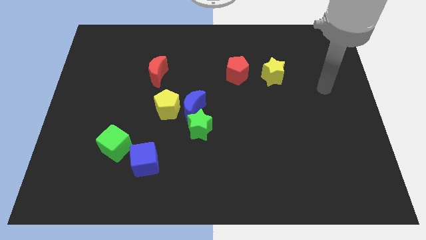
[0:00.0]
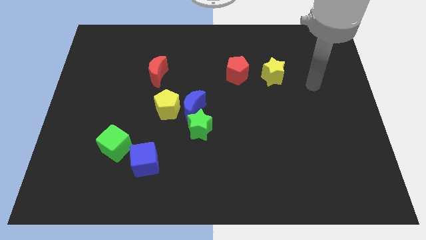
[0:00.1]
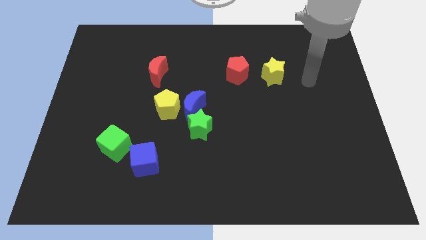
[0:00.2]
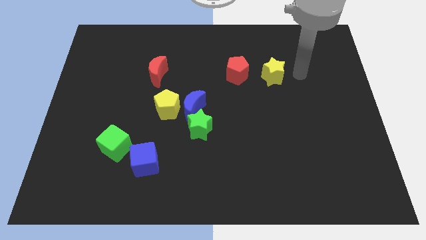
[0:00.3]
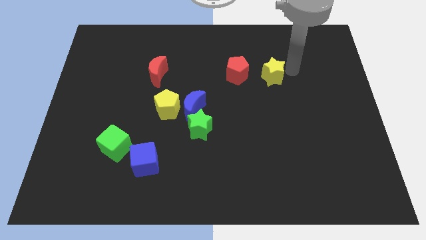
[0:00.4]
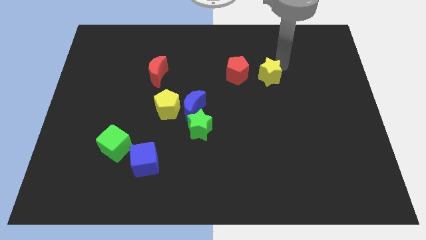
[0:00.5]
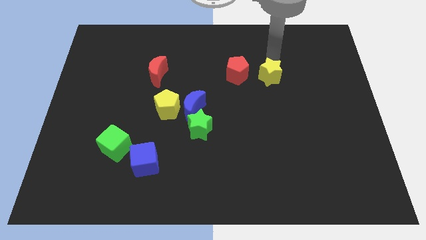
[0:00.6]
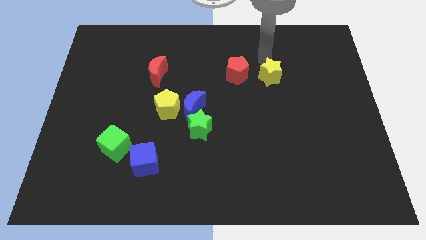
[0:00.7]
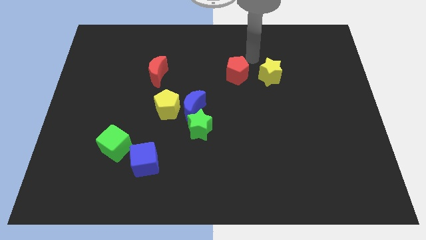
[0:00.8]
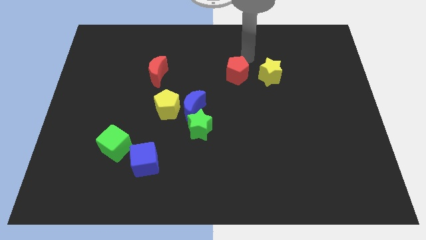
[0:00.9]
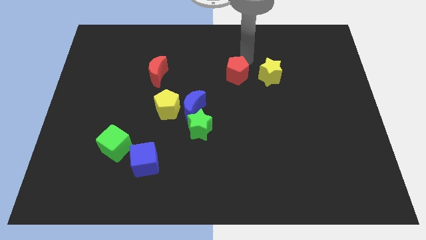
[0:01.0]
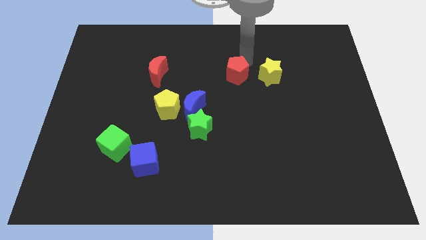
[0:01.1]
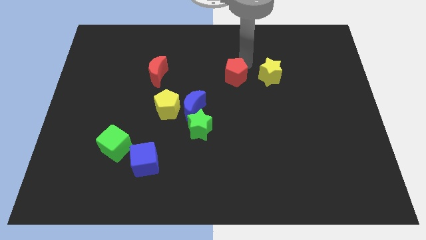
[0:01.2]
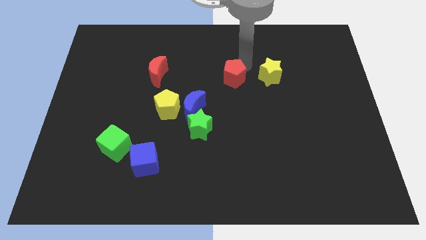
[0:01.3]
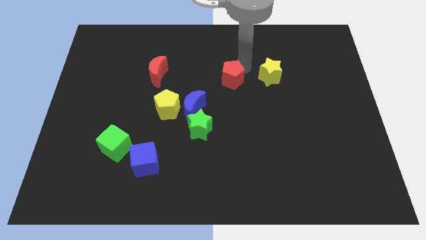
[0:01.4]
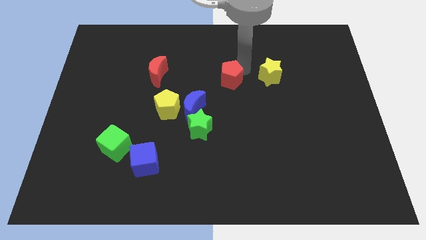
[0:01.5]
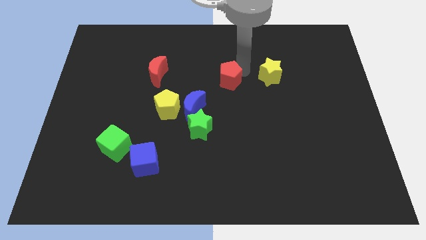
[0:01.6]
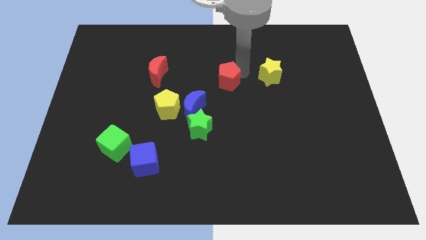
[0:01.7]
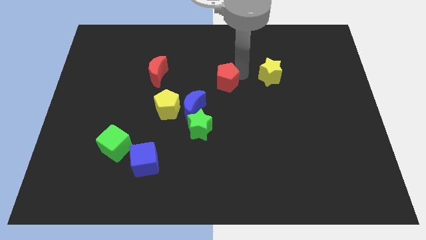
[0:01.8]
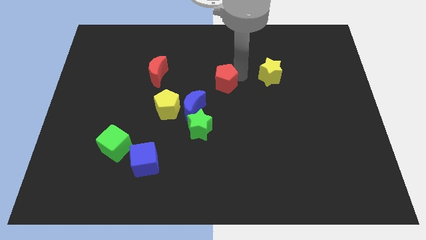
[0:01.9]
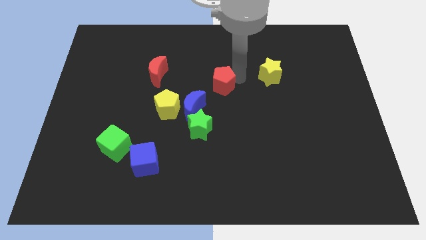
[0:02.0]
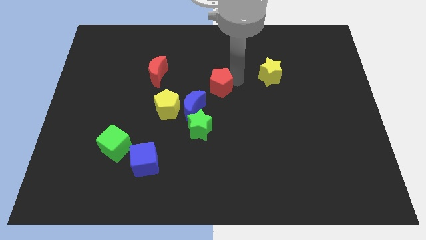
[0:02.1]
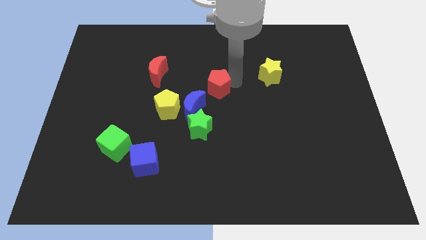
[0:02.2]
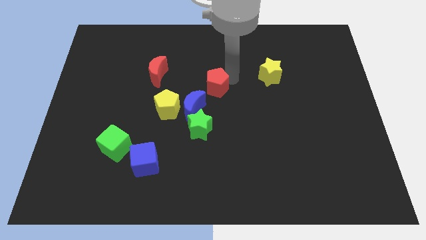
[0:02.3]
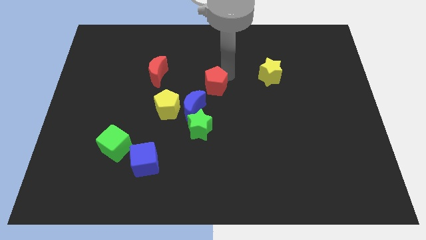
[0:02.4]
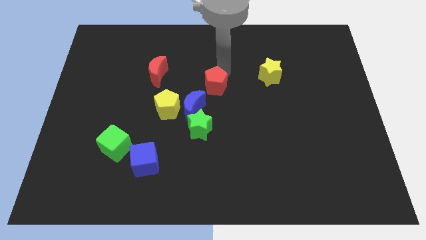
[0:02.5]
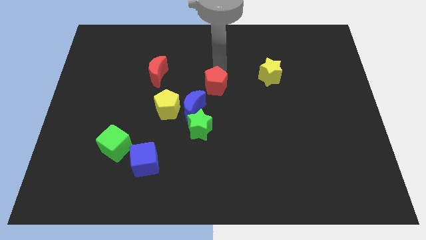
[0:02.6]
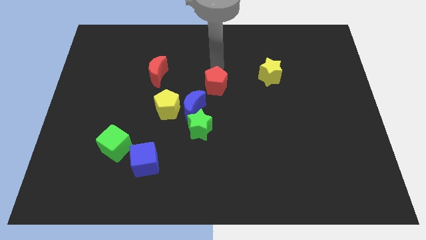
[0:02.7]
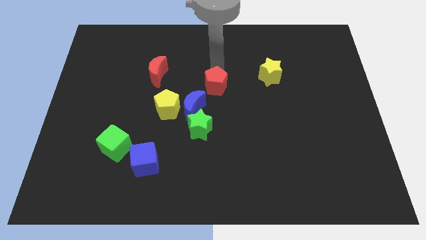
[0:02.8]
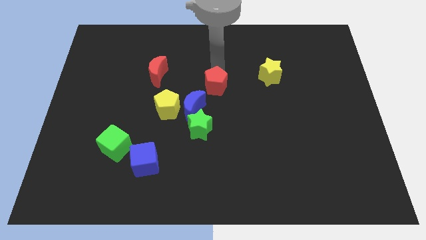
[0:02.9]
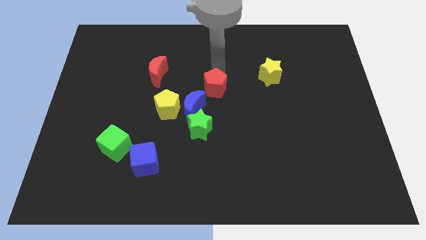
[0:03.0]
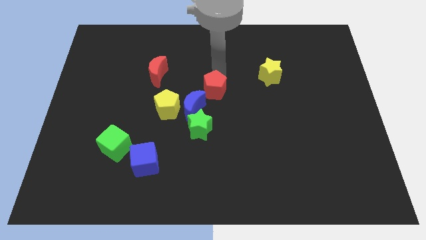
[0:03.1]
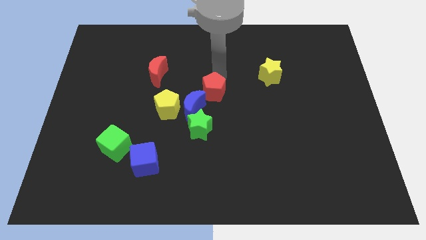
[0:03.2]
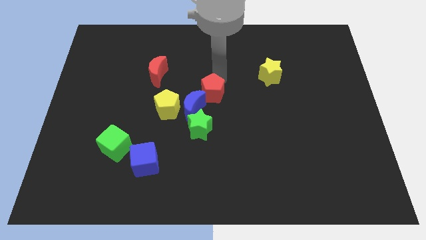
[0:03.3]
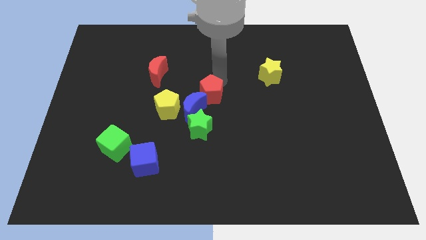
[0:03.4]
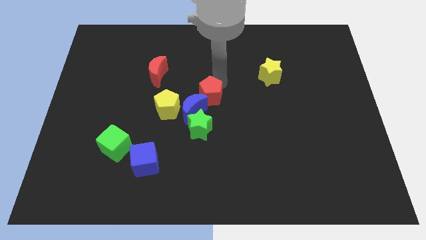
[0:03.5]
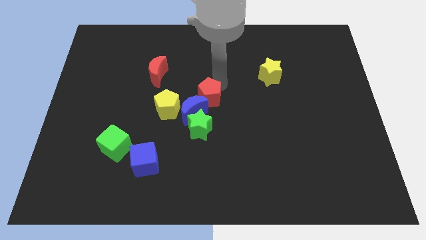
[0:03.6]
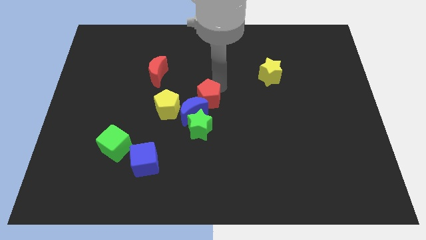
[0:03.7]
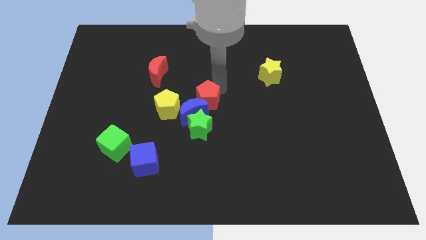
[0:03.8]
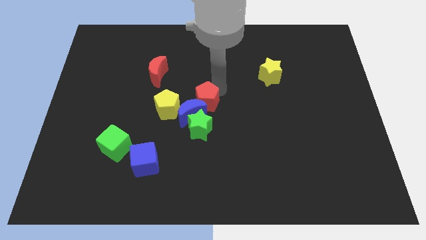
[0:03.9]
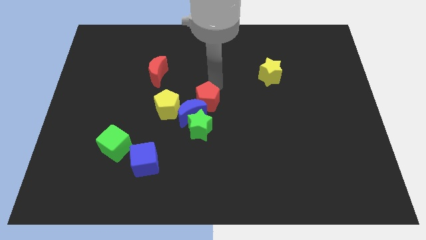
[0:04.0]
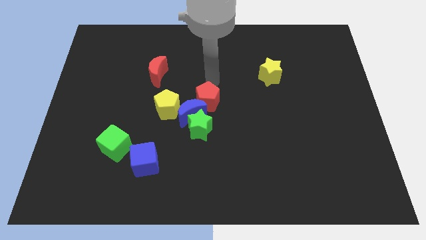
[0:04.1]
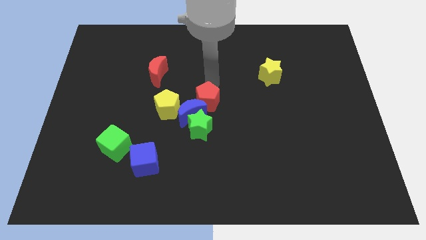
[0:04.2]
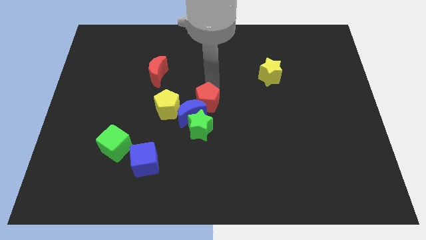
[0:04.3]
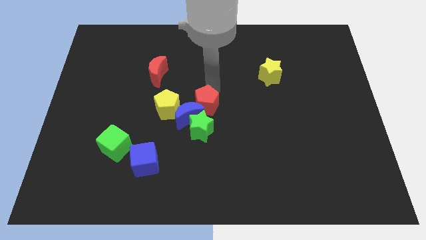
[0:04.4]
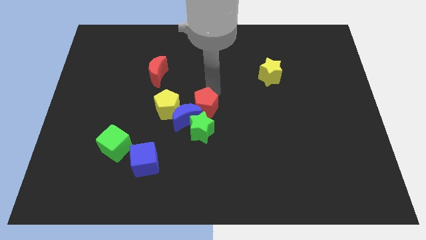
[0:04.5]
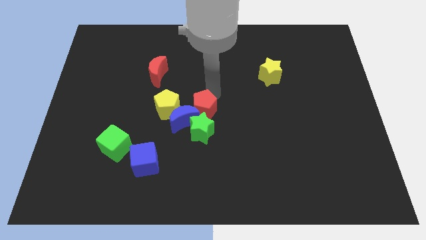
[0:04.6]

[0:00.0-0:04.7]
slide the red pentagon towards the green star

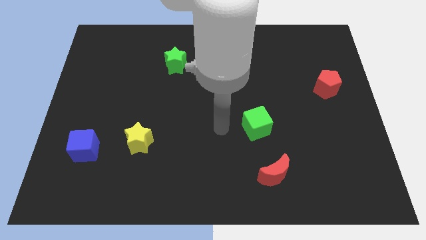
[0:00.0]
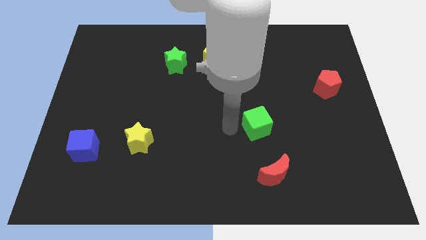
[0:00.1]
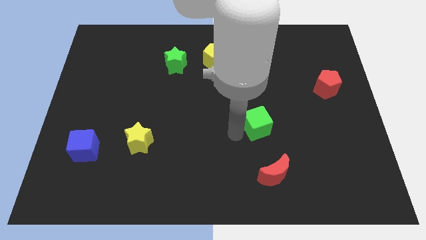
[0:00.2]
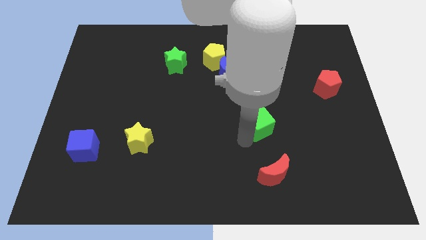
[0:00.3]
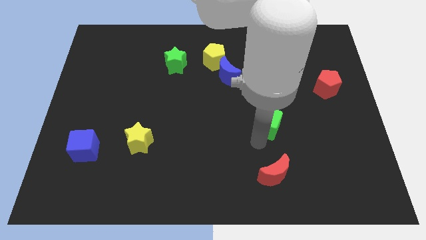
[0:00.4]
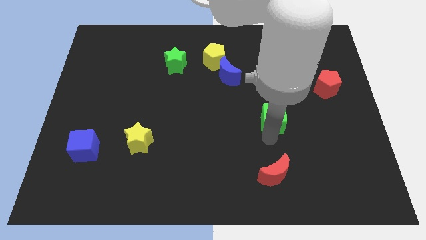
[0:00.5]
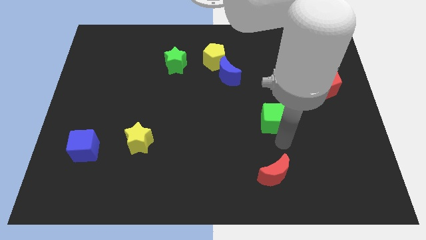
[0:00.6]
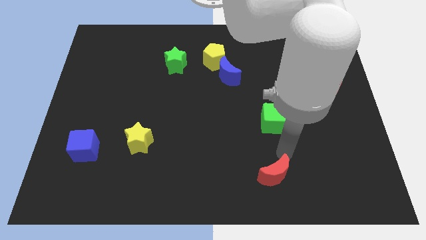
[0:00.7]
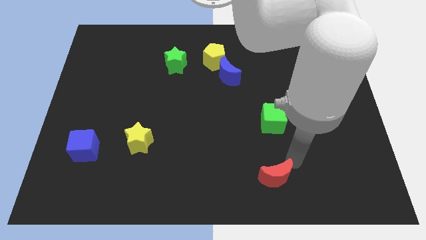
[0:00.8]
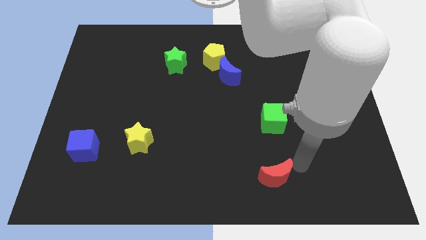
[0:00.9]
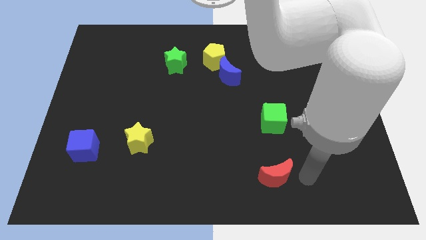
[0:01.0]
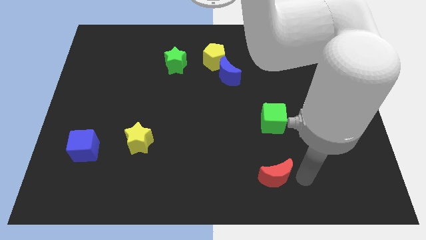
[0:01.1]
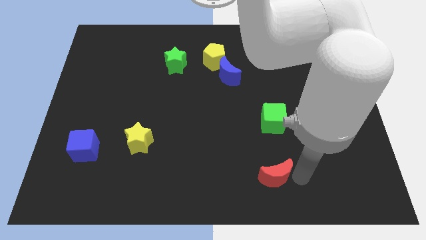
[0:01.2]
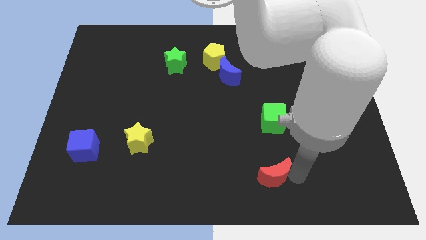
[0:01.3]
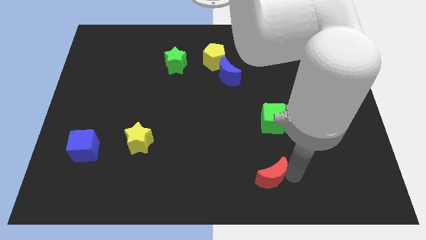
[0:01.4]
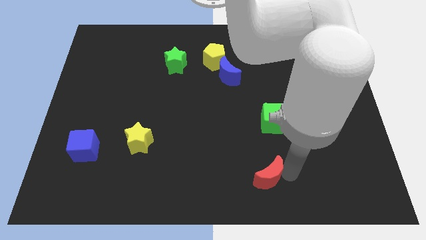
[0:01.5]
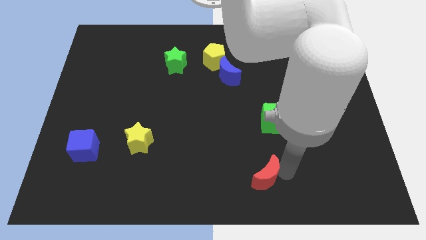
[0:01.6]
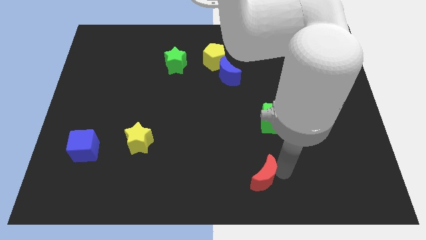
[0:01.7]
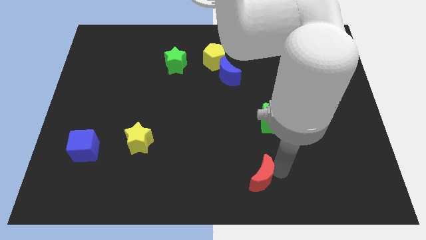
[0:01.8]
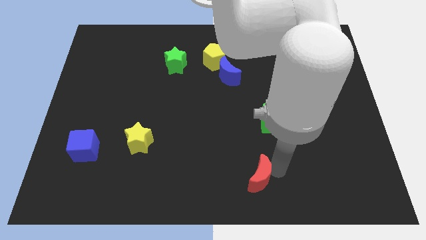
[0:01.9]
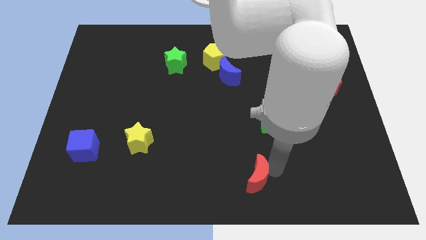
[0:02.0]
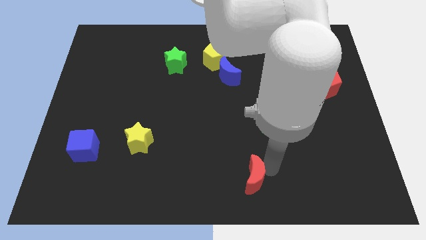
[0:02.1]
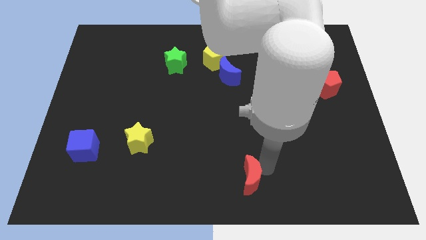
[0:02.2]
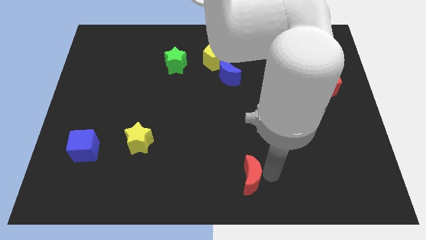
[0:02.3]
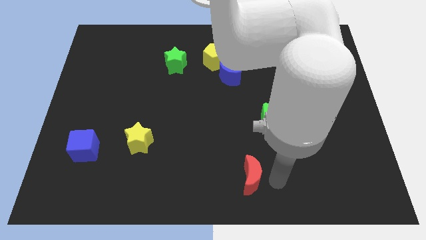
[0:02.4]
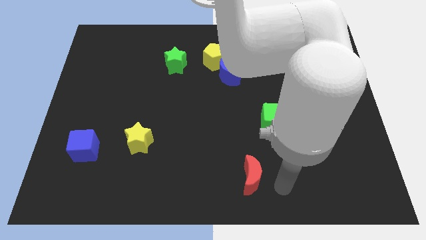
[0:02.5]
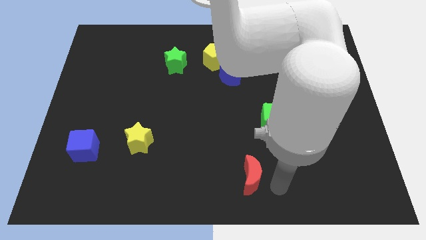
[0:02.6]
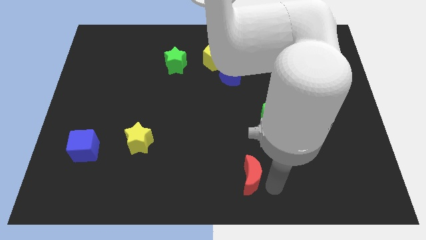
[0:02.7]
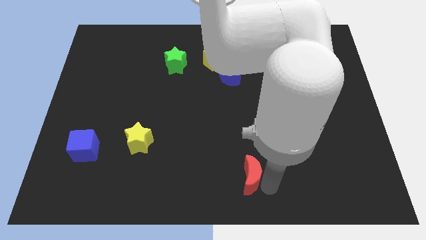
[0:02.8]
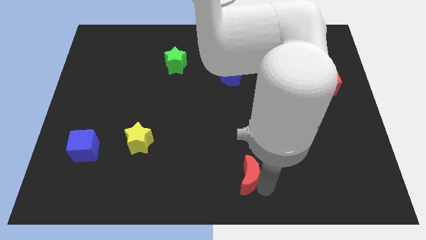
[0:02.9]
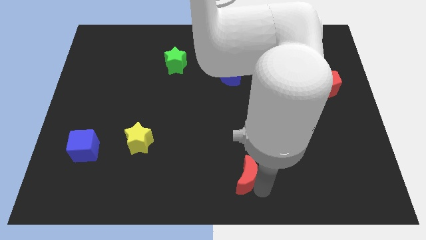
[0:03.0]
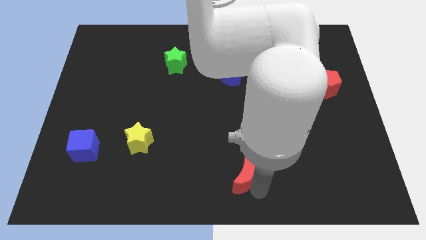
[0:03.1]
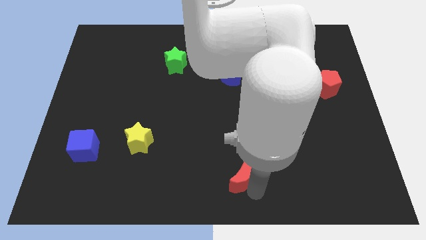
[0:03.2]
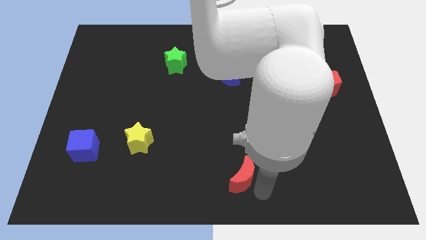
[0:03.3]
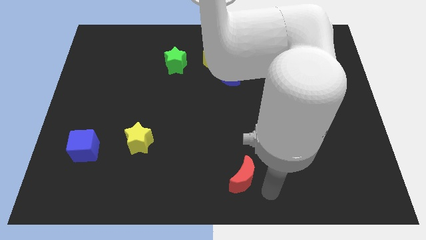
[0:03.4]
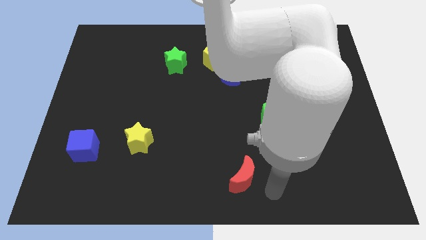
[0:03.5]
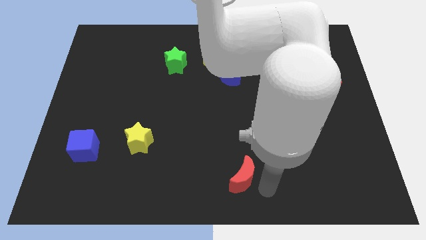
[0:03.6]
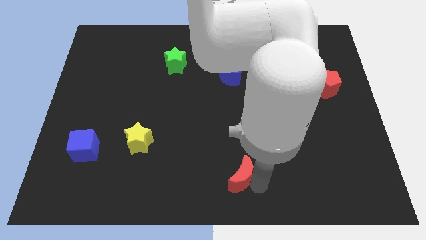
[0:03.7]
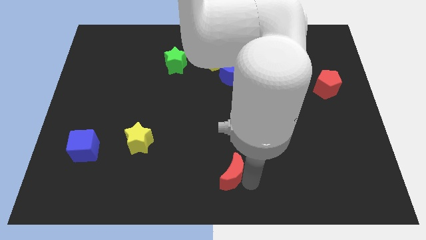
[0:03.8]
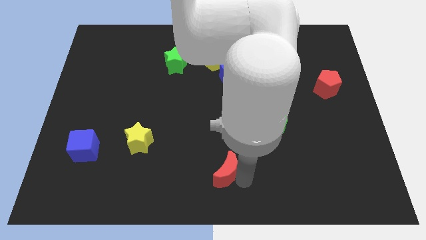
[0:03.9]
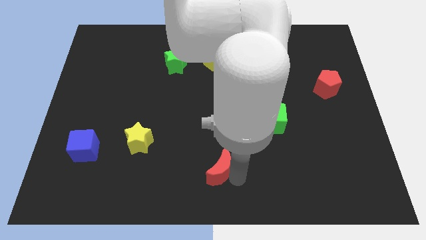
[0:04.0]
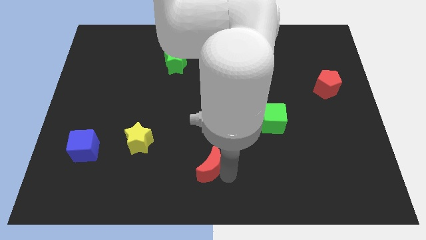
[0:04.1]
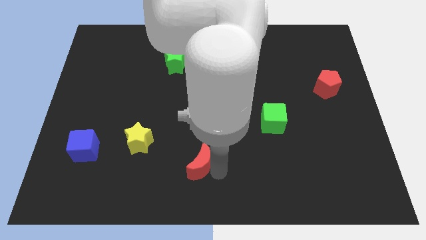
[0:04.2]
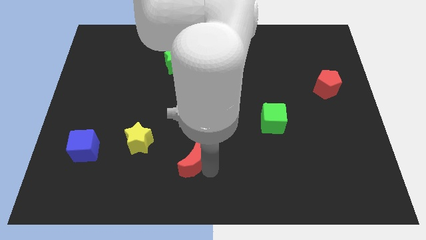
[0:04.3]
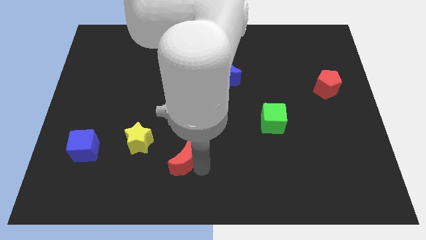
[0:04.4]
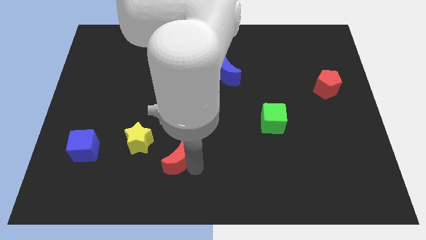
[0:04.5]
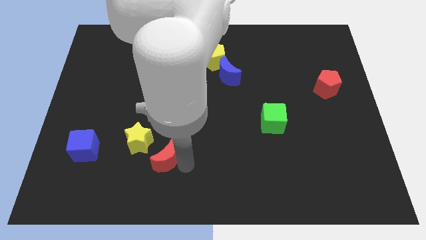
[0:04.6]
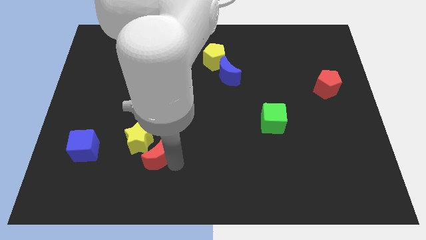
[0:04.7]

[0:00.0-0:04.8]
move the red moon close to the yellow star
